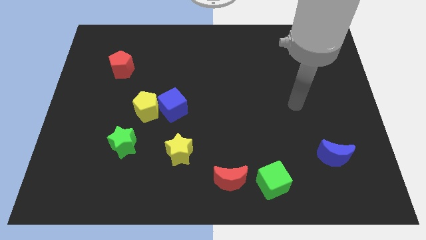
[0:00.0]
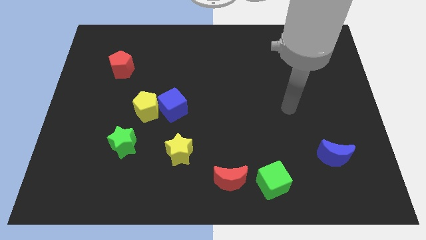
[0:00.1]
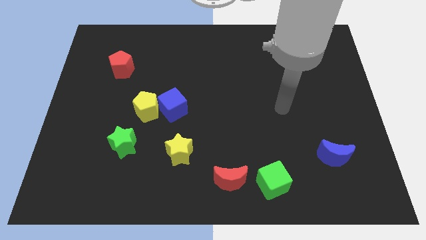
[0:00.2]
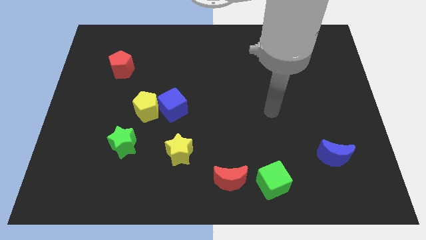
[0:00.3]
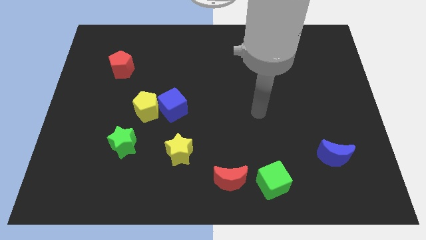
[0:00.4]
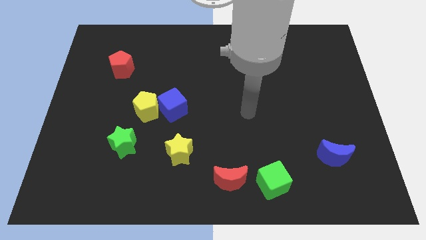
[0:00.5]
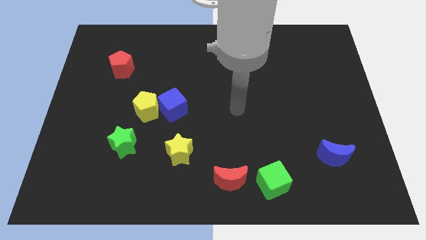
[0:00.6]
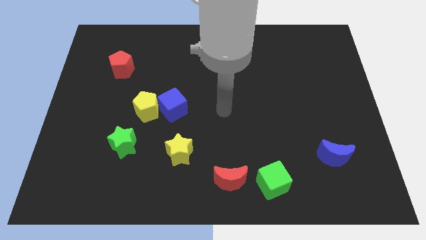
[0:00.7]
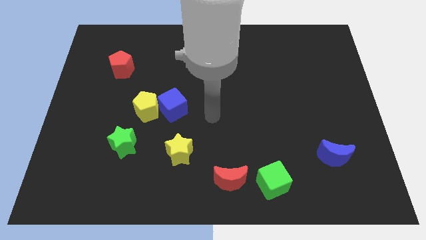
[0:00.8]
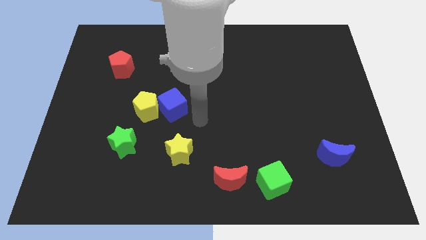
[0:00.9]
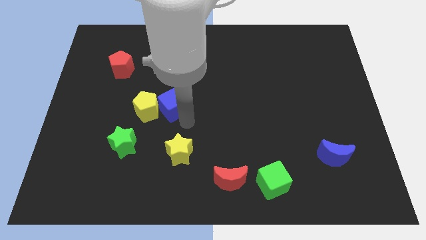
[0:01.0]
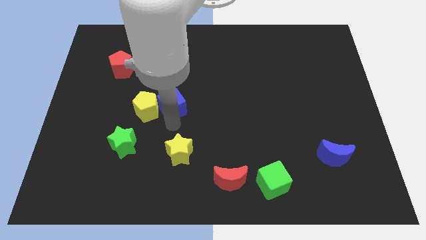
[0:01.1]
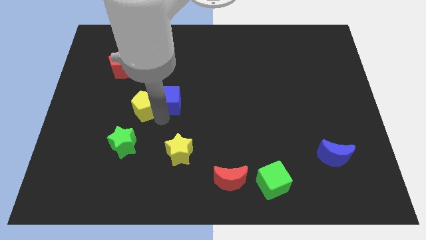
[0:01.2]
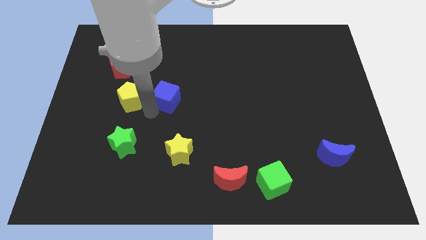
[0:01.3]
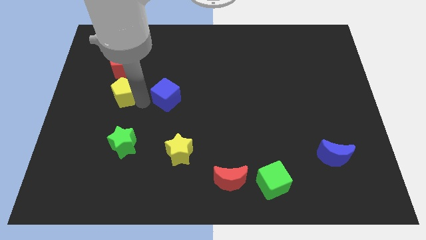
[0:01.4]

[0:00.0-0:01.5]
move the blue cube away from the yellow pentagon

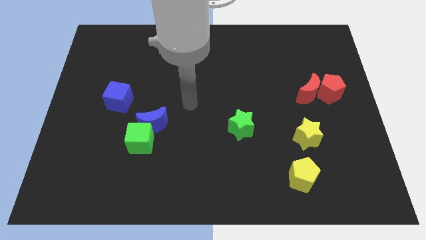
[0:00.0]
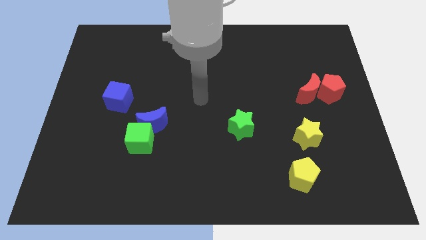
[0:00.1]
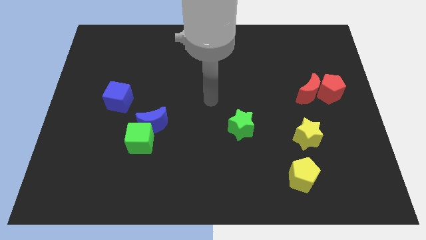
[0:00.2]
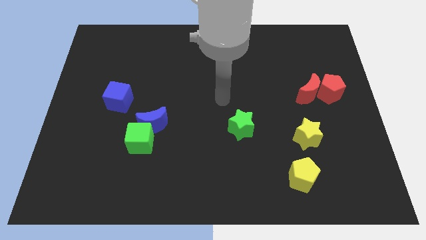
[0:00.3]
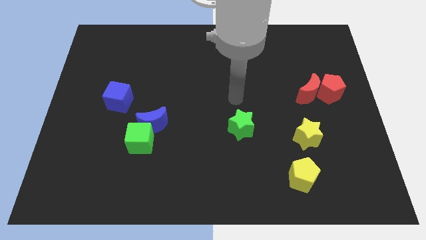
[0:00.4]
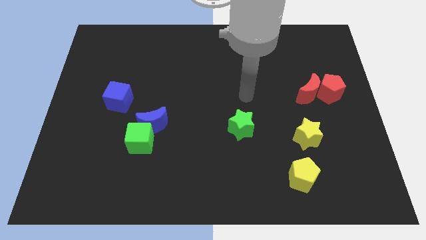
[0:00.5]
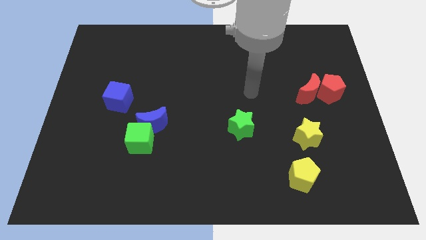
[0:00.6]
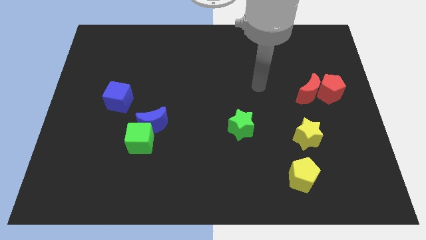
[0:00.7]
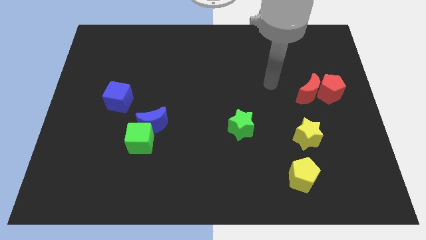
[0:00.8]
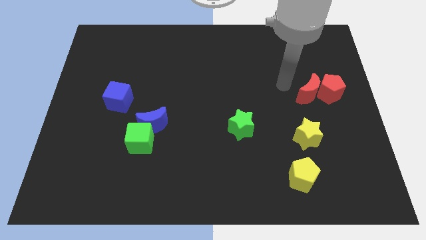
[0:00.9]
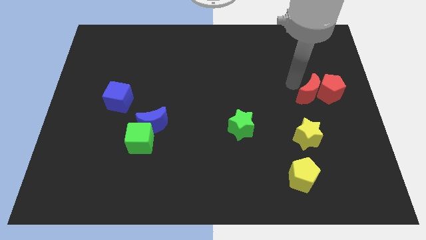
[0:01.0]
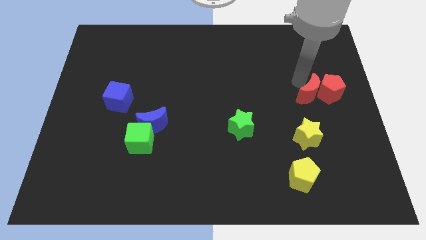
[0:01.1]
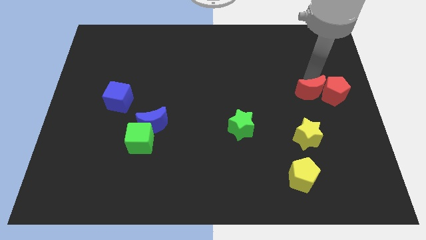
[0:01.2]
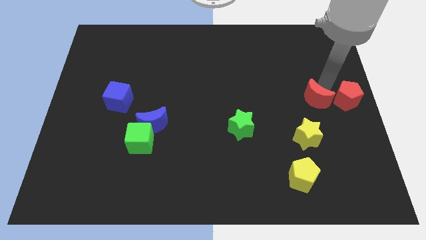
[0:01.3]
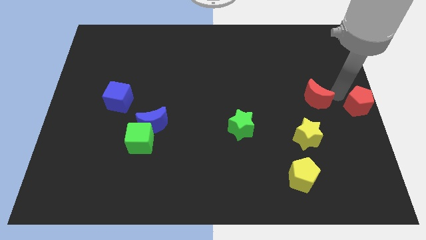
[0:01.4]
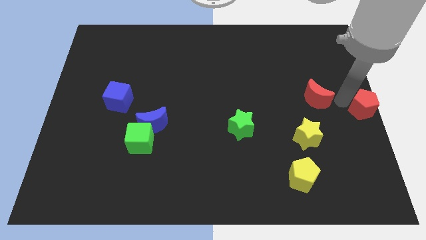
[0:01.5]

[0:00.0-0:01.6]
move the red moon away from the red pentagon

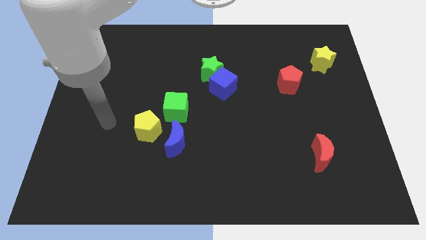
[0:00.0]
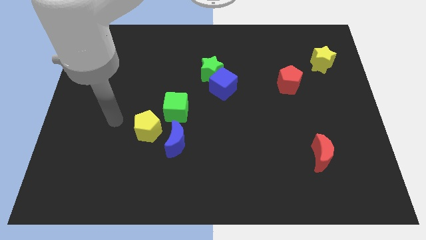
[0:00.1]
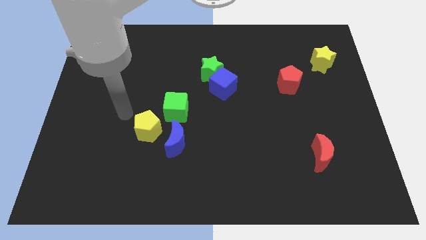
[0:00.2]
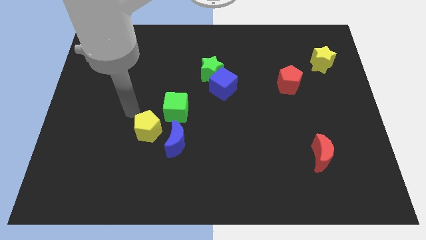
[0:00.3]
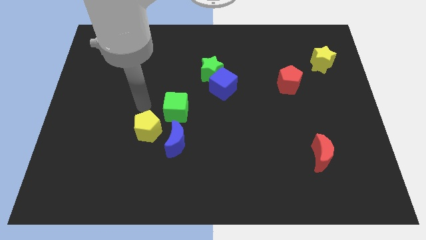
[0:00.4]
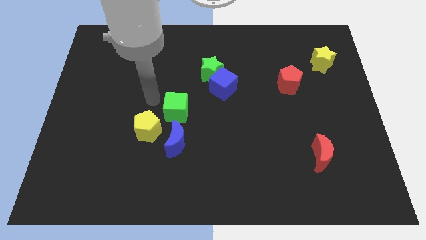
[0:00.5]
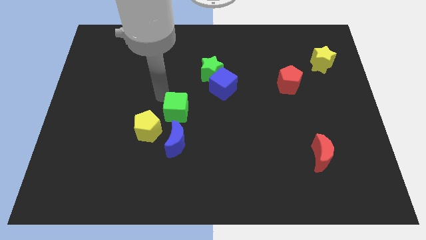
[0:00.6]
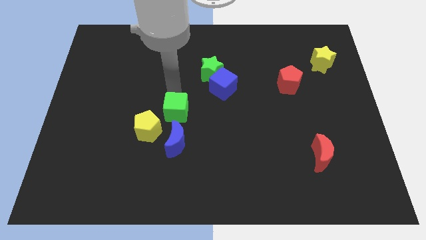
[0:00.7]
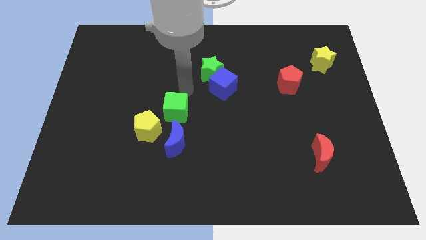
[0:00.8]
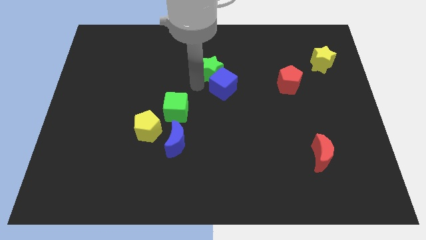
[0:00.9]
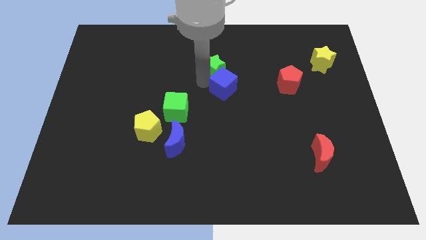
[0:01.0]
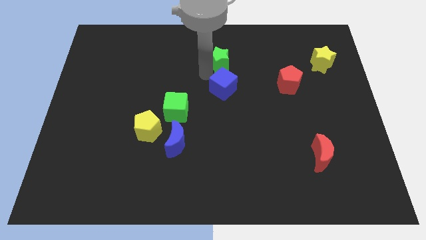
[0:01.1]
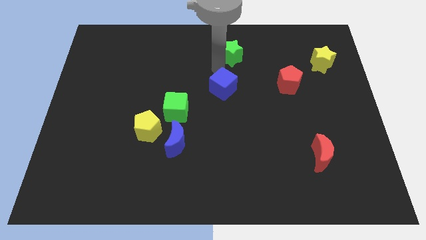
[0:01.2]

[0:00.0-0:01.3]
pull the blue cube apart from the green star

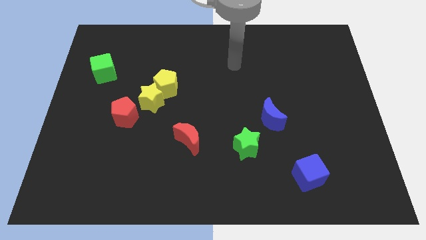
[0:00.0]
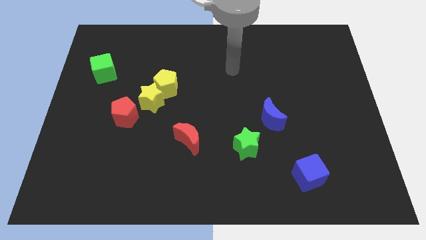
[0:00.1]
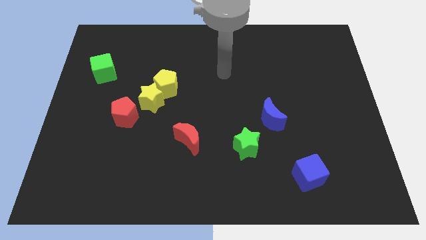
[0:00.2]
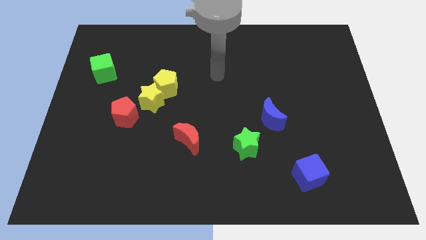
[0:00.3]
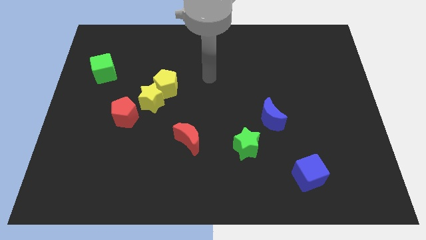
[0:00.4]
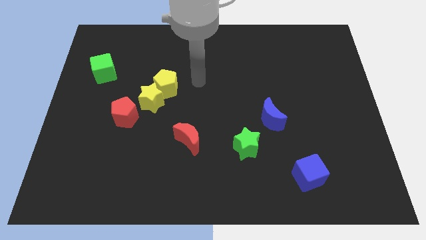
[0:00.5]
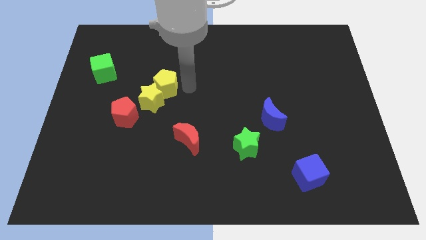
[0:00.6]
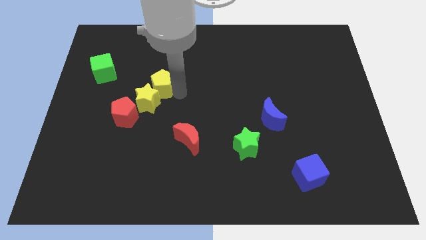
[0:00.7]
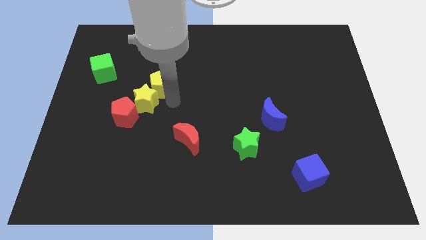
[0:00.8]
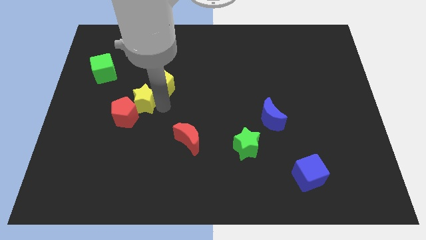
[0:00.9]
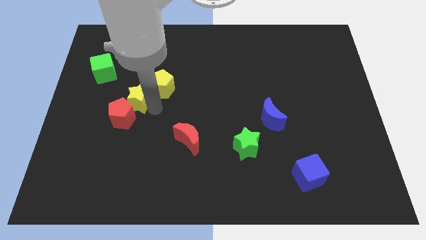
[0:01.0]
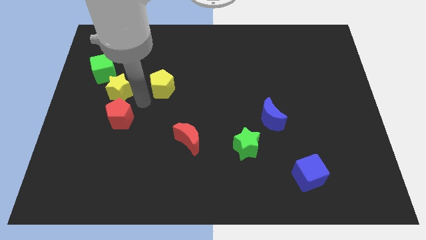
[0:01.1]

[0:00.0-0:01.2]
pull the yellow pentagon apart from the yellow star

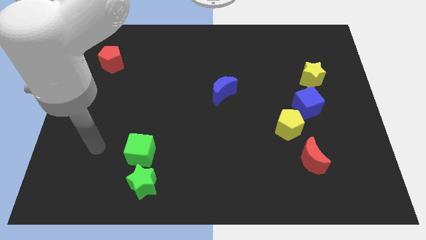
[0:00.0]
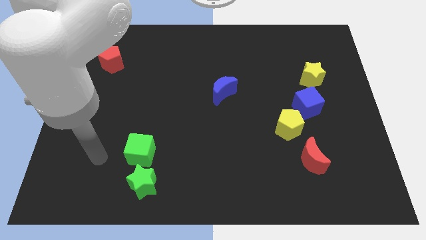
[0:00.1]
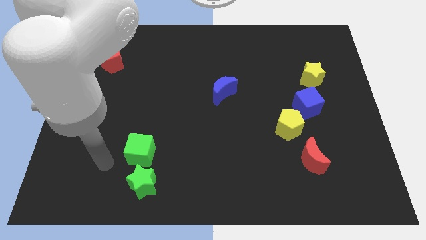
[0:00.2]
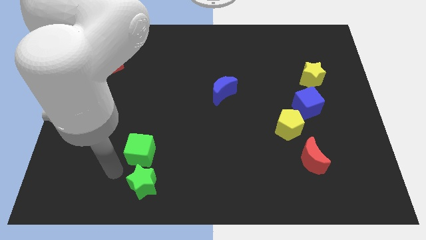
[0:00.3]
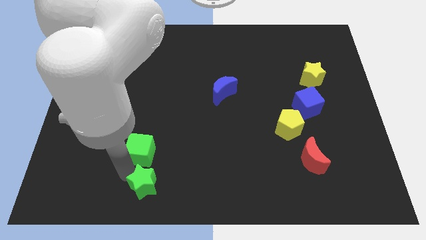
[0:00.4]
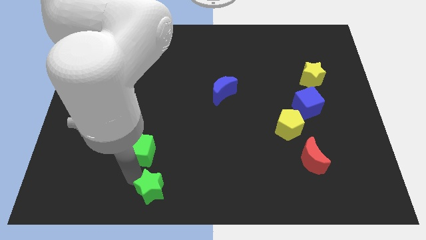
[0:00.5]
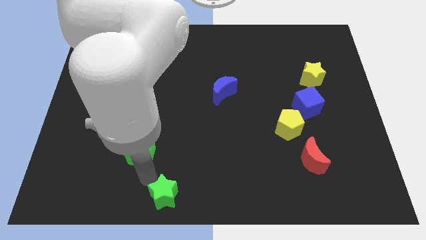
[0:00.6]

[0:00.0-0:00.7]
pull the green cube apart from the green star

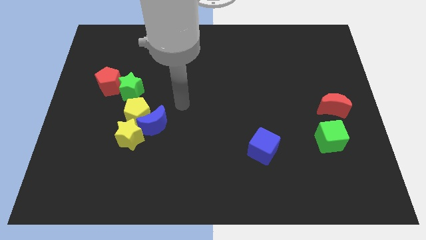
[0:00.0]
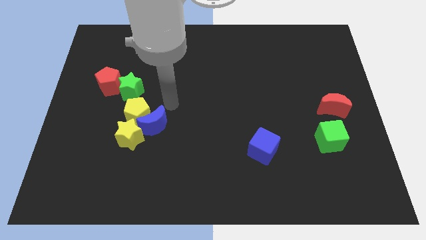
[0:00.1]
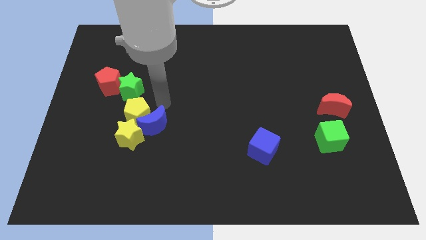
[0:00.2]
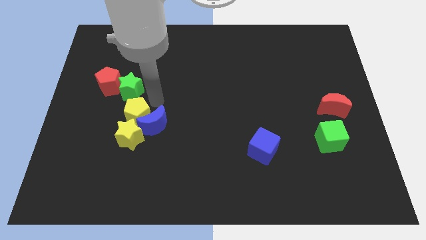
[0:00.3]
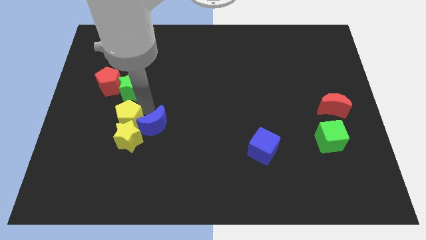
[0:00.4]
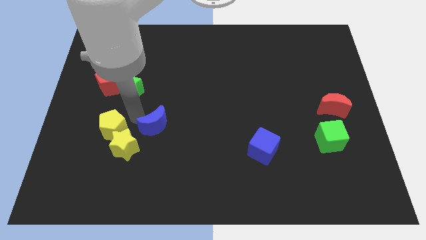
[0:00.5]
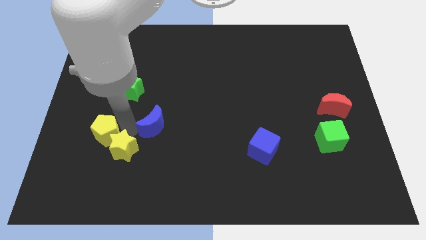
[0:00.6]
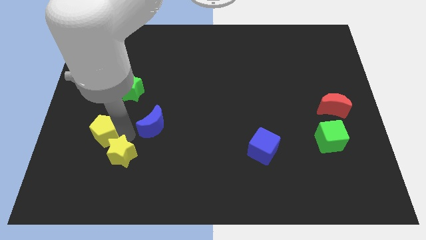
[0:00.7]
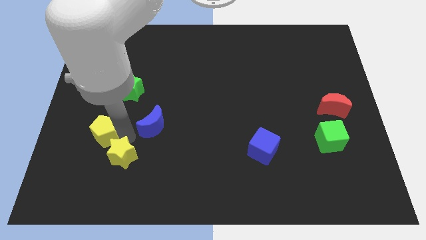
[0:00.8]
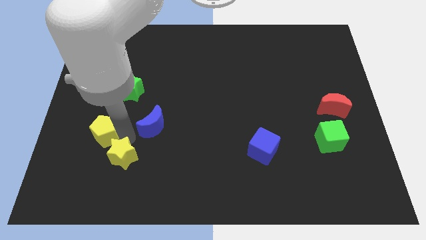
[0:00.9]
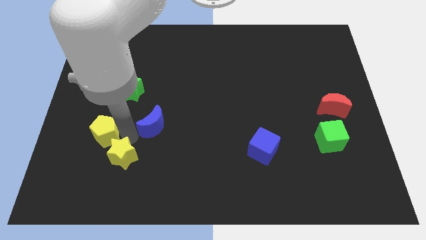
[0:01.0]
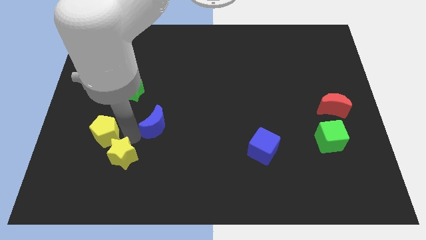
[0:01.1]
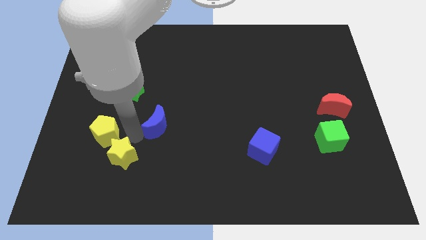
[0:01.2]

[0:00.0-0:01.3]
move the blue moon away from the yellow pentagon and yellow star

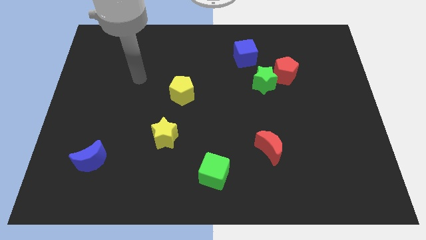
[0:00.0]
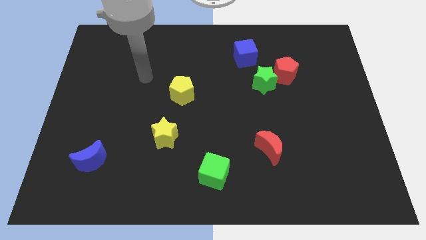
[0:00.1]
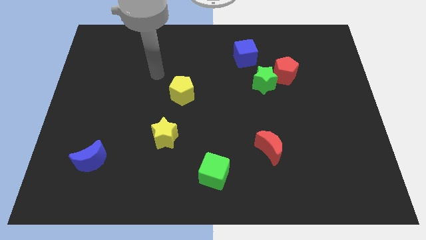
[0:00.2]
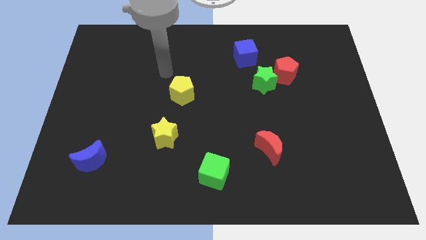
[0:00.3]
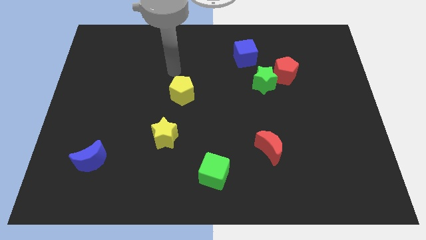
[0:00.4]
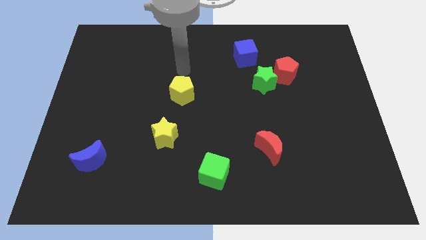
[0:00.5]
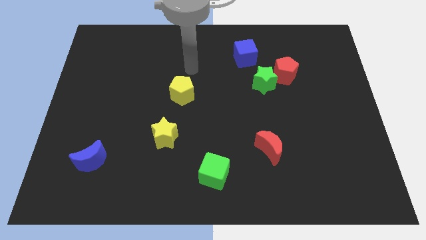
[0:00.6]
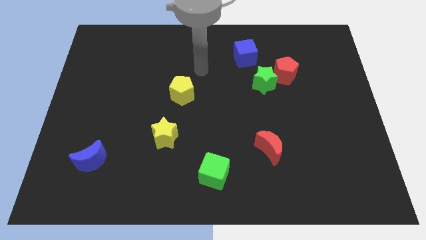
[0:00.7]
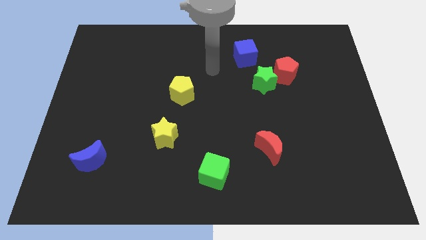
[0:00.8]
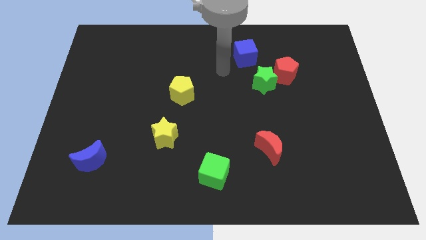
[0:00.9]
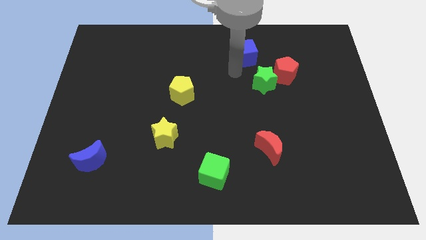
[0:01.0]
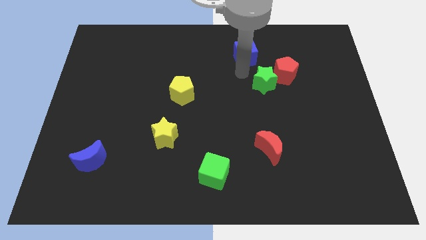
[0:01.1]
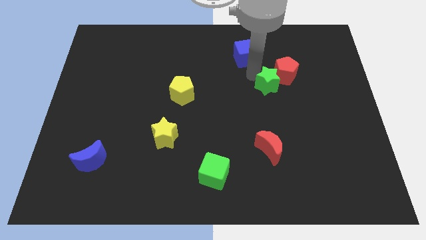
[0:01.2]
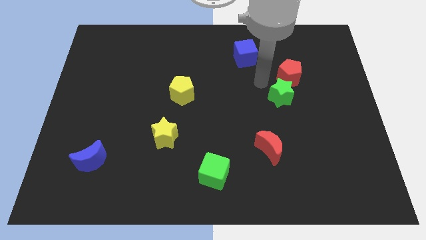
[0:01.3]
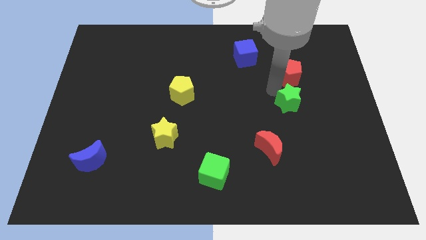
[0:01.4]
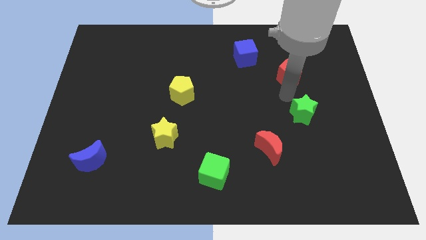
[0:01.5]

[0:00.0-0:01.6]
move the red pentagon away from the green star

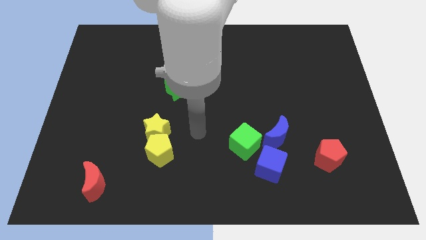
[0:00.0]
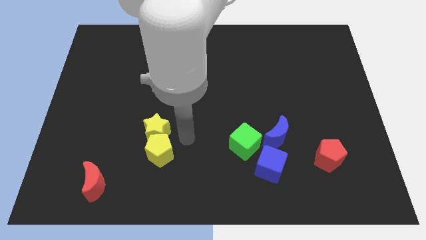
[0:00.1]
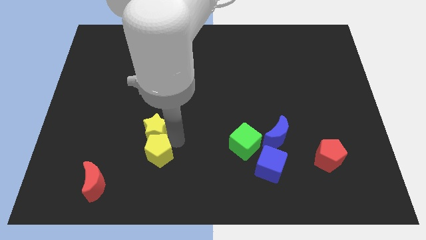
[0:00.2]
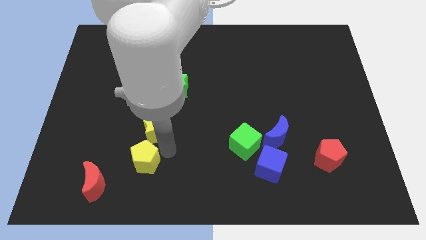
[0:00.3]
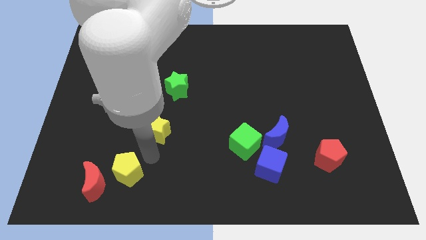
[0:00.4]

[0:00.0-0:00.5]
move the yellow star away from the yellow pentagon
